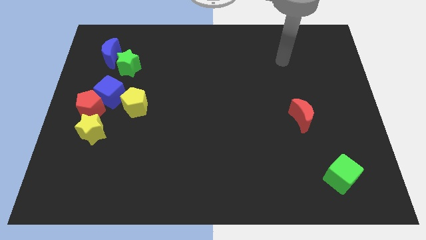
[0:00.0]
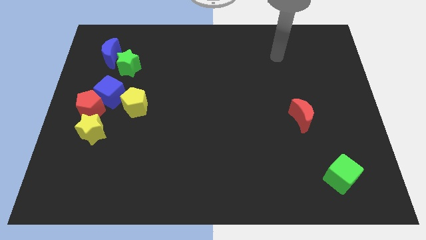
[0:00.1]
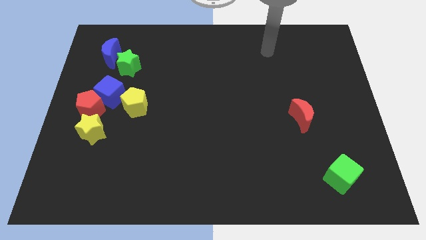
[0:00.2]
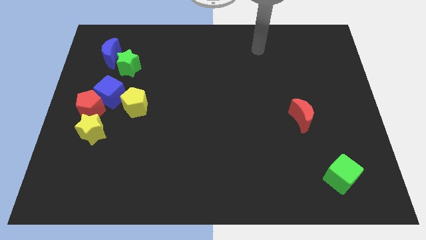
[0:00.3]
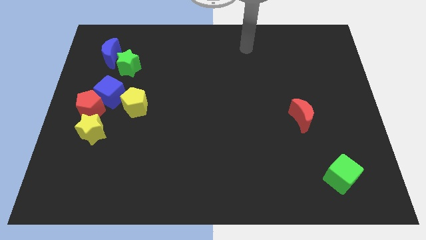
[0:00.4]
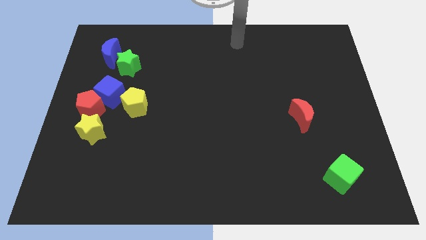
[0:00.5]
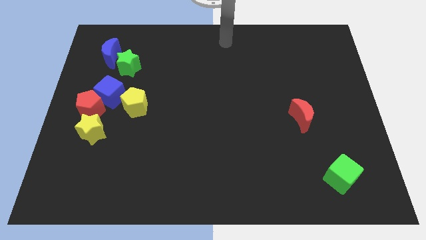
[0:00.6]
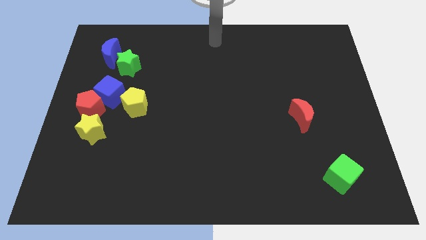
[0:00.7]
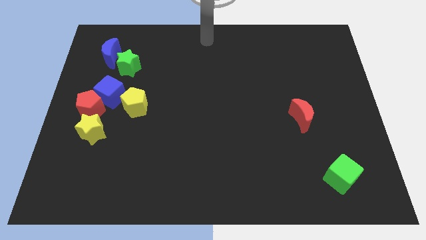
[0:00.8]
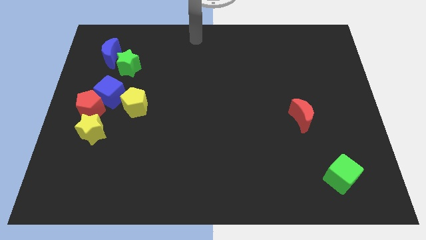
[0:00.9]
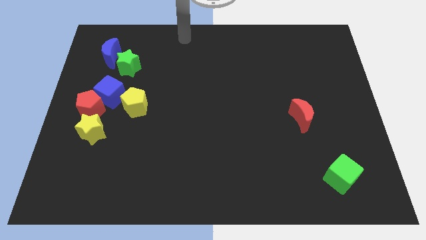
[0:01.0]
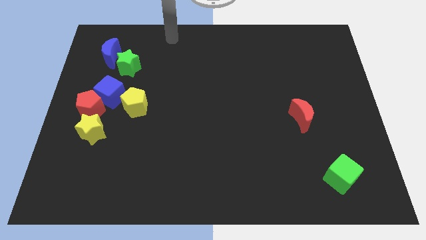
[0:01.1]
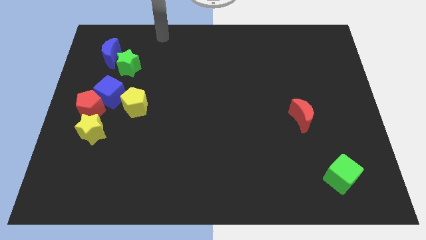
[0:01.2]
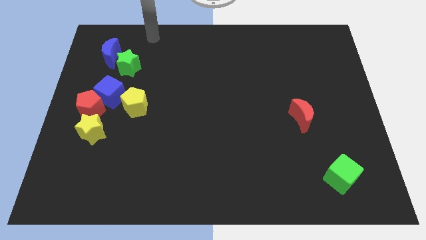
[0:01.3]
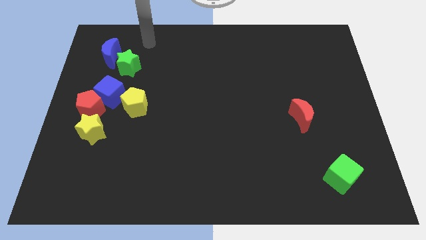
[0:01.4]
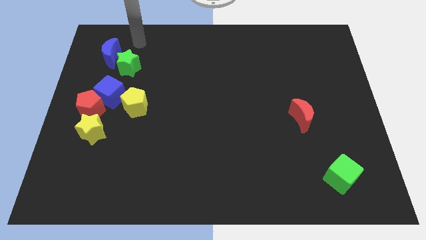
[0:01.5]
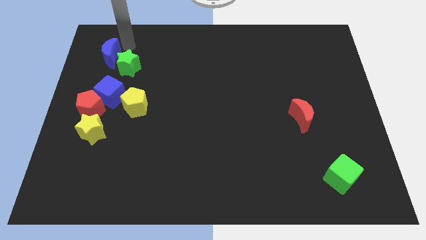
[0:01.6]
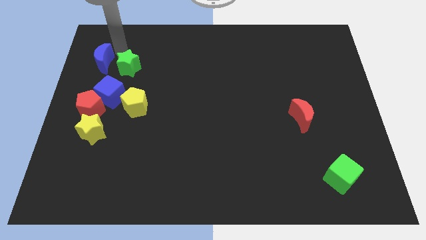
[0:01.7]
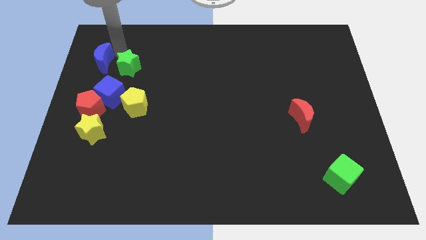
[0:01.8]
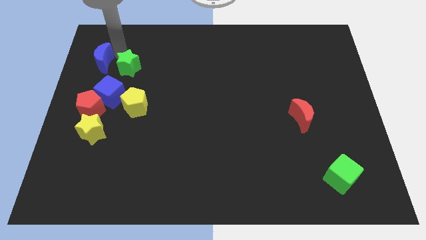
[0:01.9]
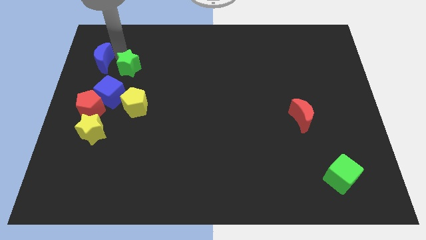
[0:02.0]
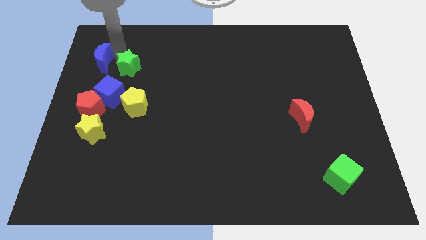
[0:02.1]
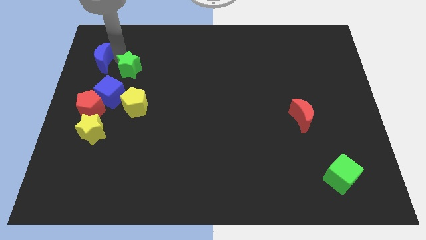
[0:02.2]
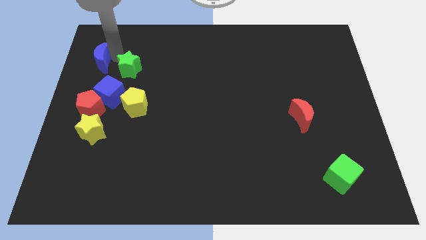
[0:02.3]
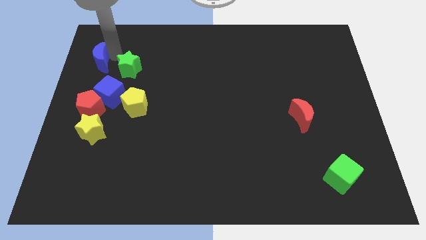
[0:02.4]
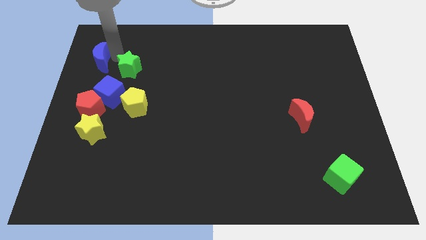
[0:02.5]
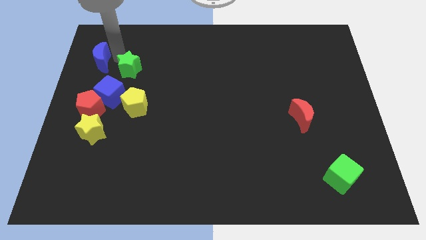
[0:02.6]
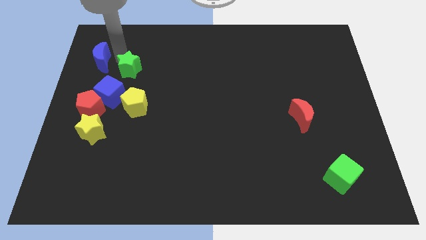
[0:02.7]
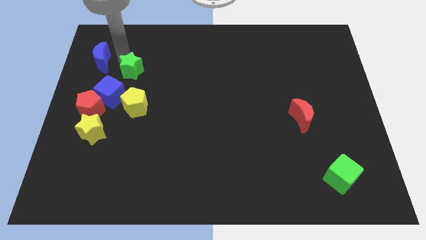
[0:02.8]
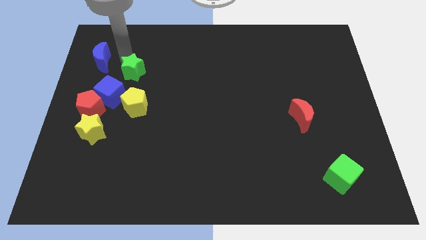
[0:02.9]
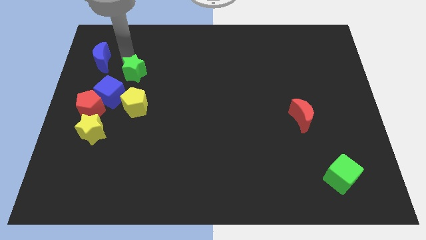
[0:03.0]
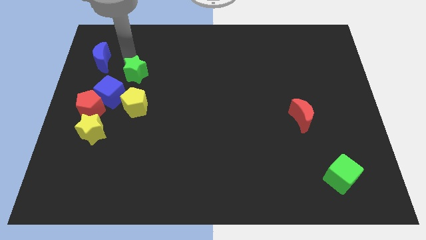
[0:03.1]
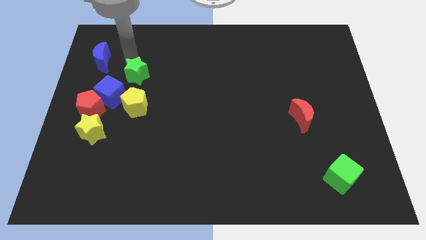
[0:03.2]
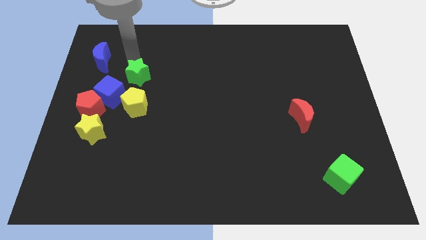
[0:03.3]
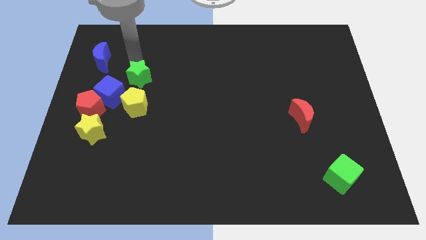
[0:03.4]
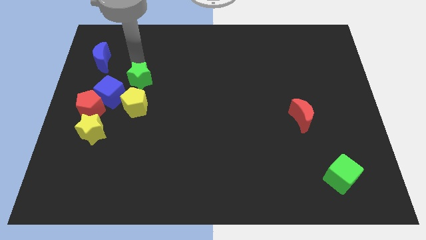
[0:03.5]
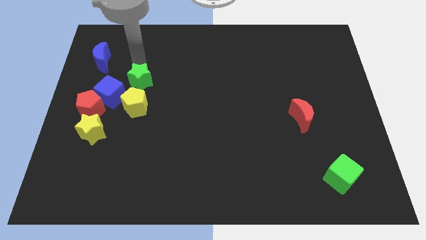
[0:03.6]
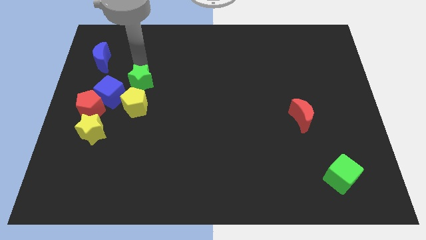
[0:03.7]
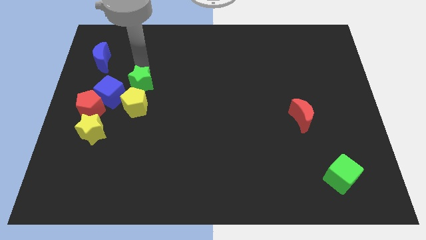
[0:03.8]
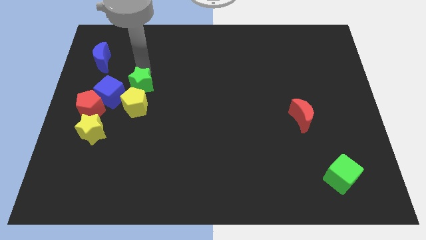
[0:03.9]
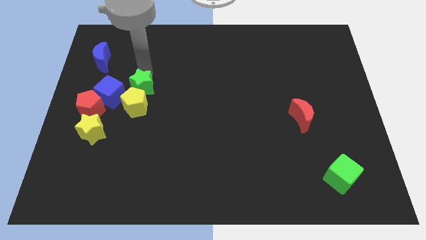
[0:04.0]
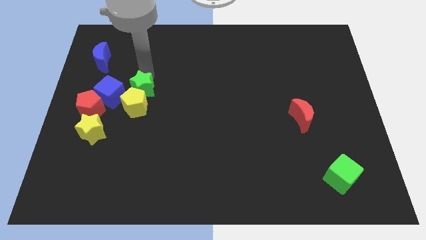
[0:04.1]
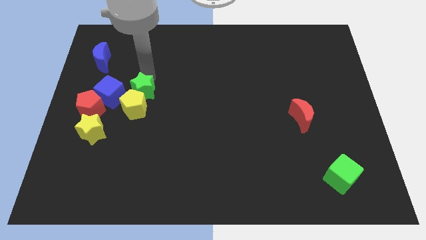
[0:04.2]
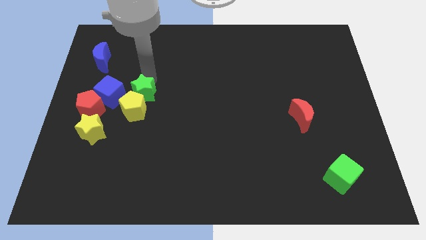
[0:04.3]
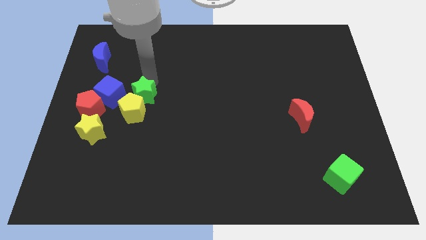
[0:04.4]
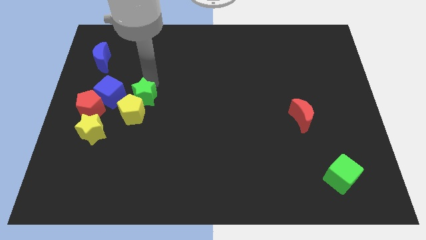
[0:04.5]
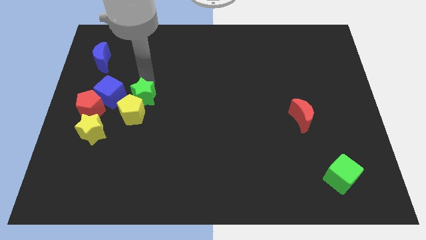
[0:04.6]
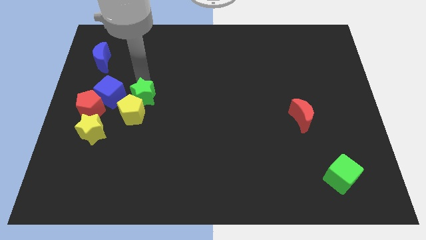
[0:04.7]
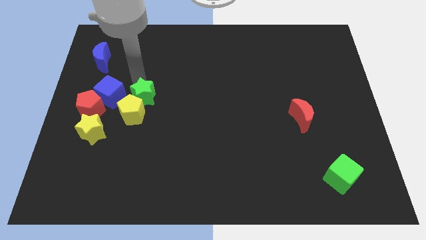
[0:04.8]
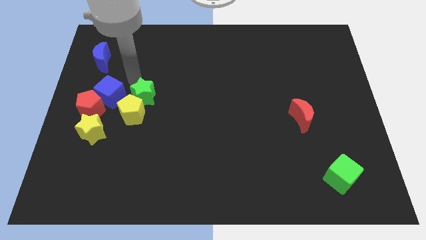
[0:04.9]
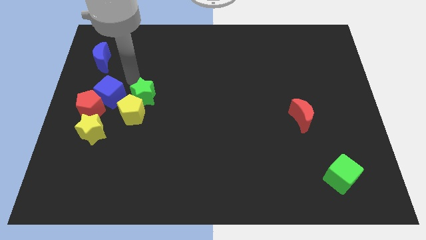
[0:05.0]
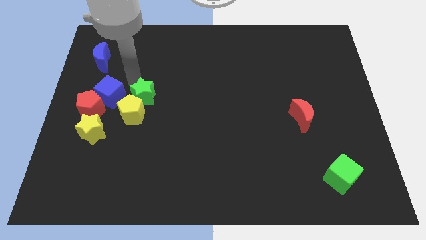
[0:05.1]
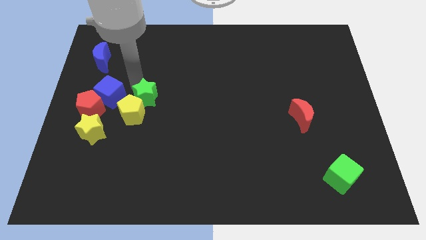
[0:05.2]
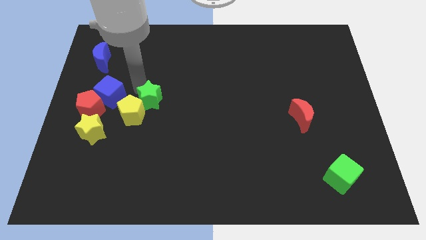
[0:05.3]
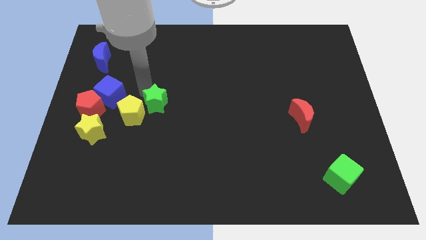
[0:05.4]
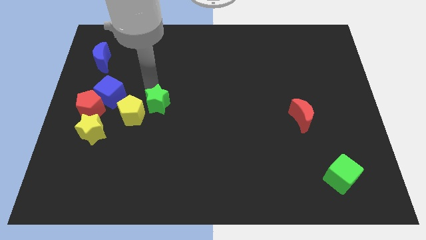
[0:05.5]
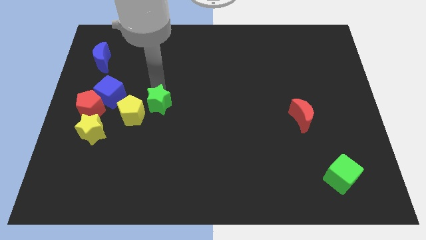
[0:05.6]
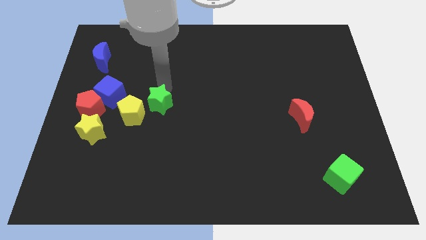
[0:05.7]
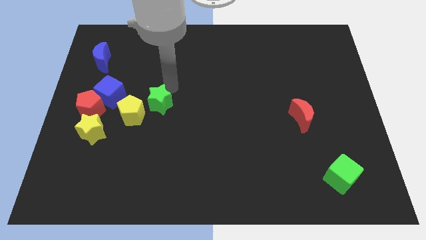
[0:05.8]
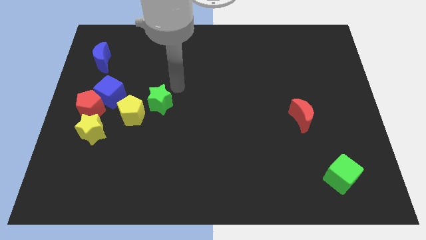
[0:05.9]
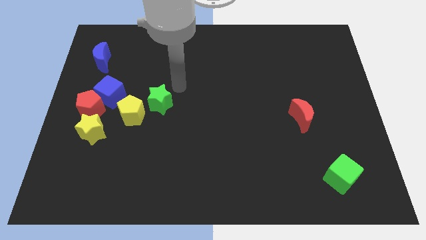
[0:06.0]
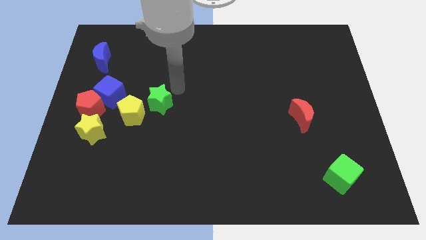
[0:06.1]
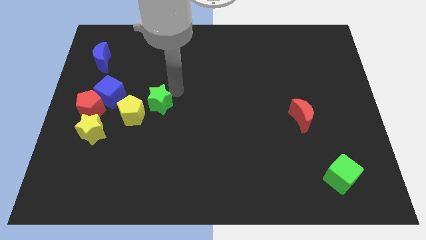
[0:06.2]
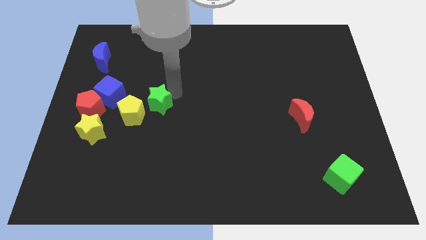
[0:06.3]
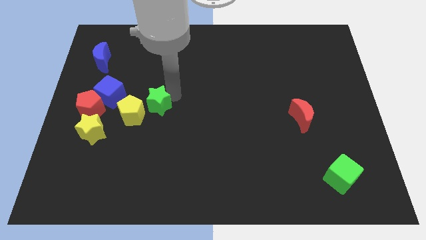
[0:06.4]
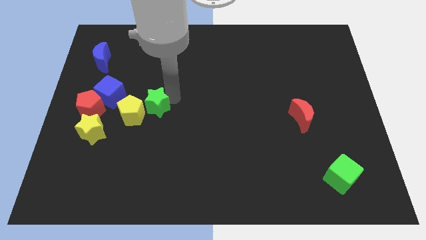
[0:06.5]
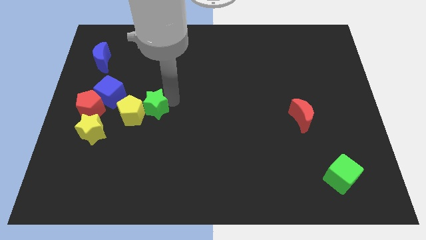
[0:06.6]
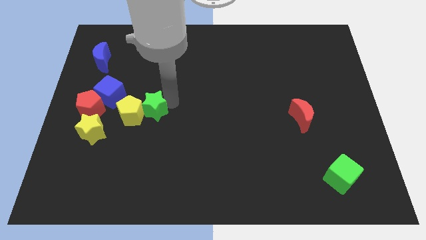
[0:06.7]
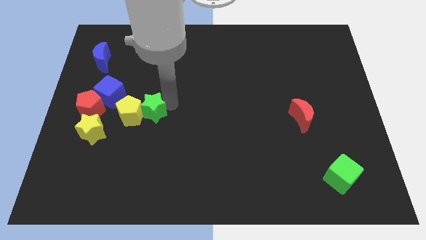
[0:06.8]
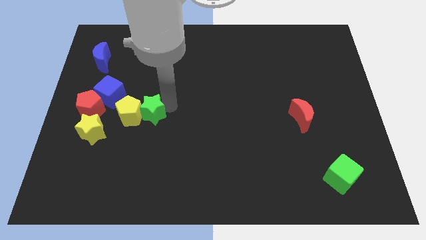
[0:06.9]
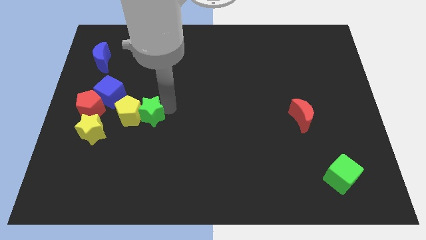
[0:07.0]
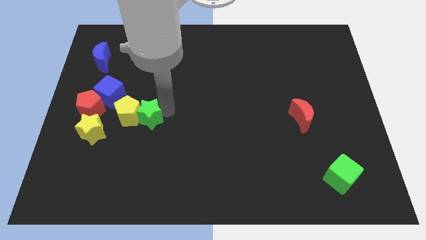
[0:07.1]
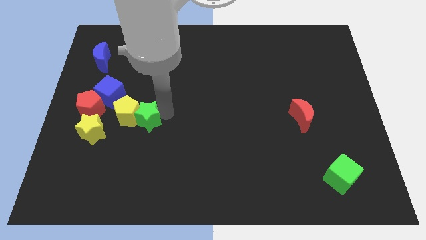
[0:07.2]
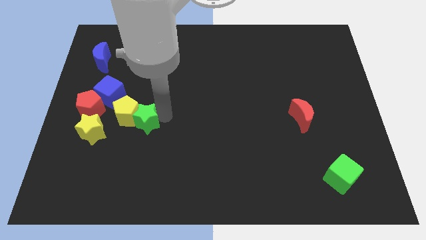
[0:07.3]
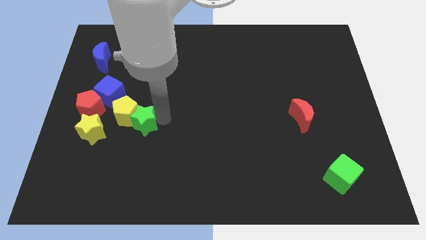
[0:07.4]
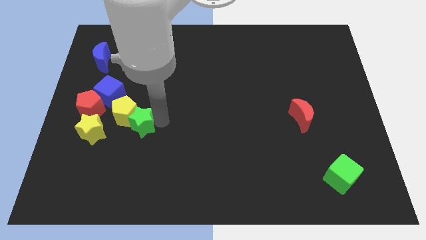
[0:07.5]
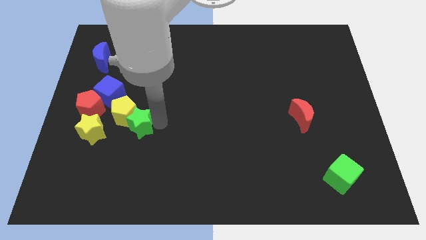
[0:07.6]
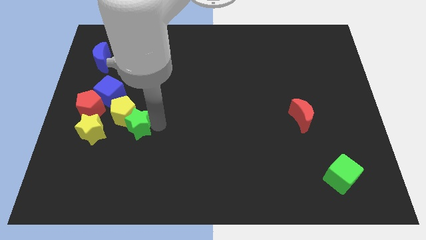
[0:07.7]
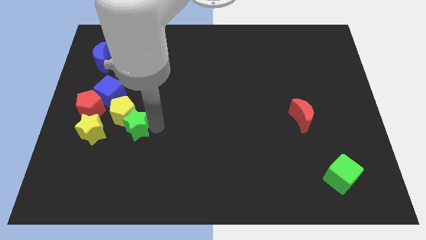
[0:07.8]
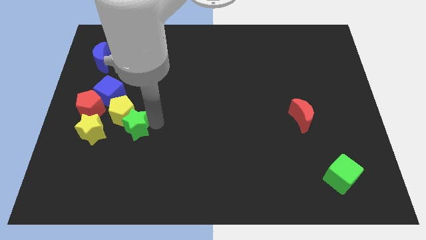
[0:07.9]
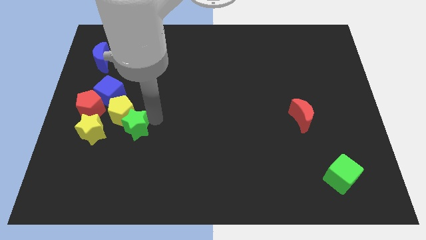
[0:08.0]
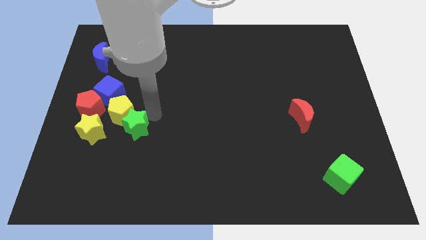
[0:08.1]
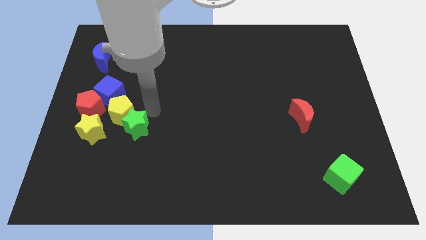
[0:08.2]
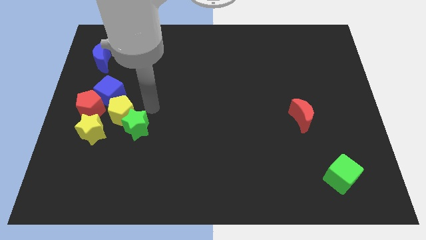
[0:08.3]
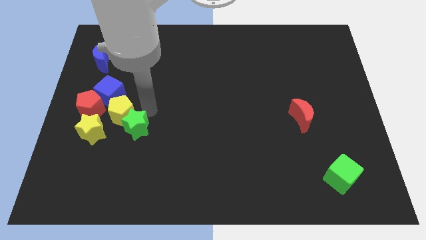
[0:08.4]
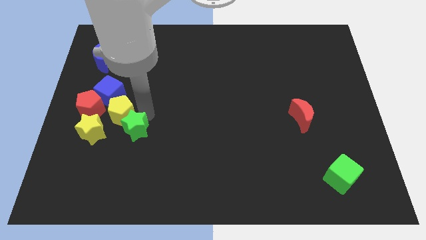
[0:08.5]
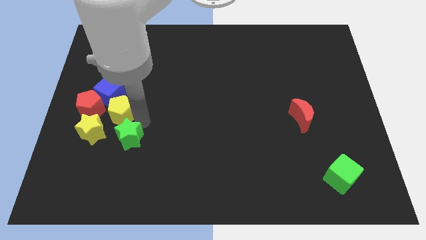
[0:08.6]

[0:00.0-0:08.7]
move the green star down
